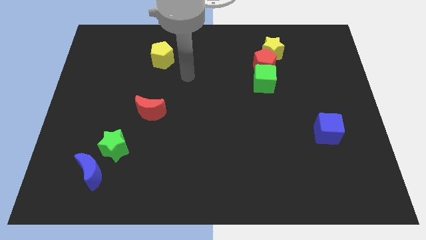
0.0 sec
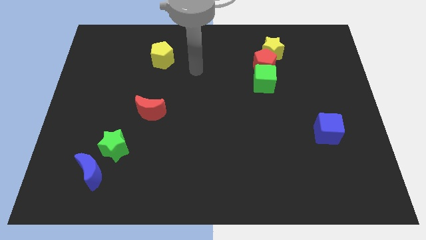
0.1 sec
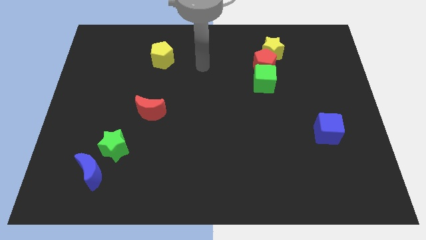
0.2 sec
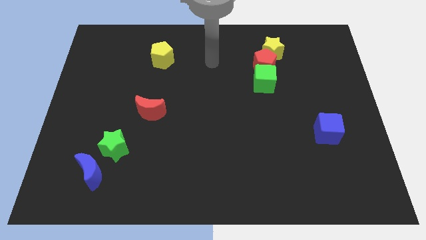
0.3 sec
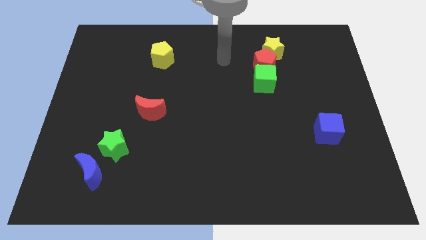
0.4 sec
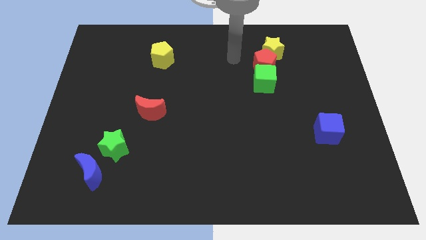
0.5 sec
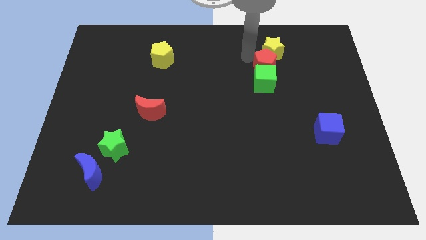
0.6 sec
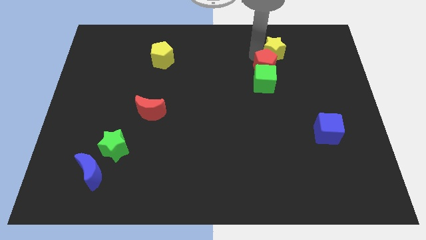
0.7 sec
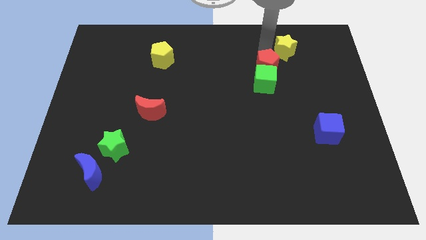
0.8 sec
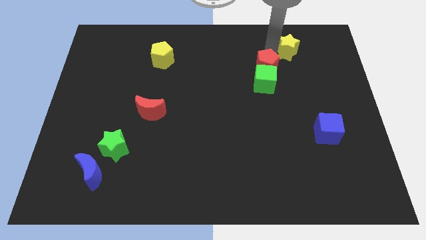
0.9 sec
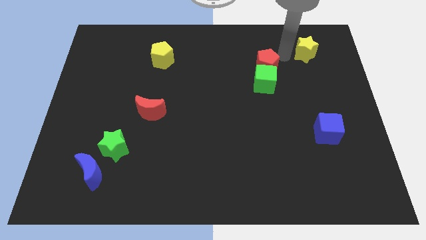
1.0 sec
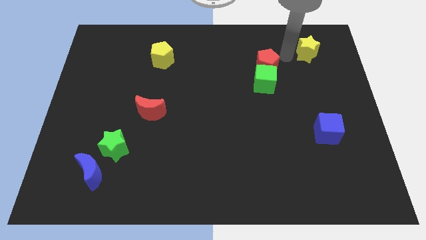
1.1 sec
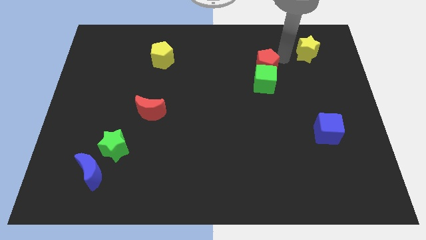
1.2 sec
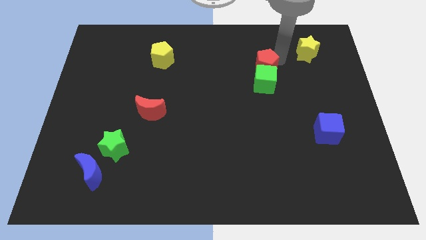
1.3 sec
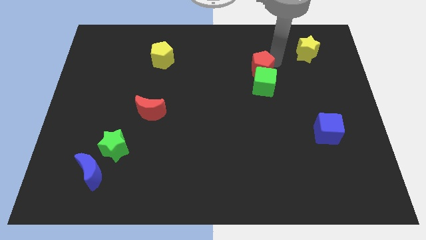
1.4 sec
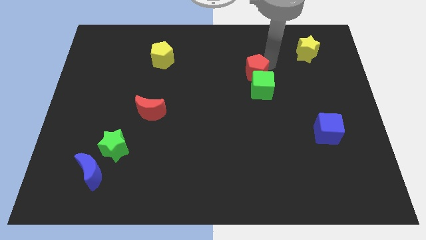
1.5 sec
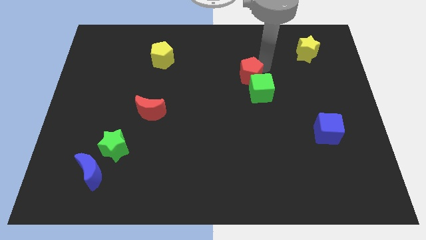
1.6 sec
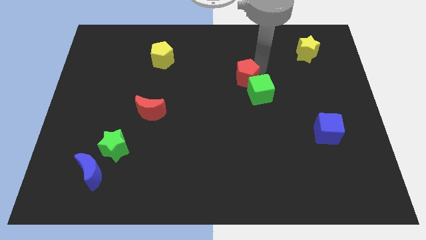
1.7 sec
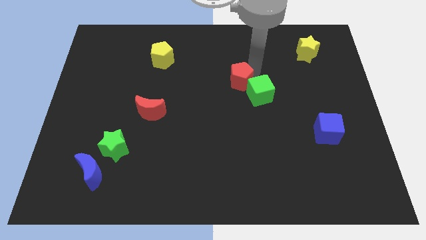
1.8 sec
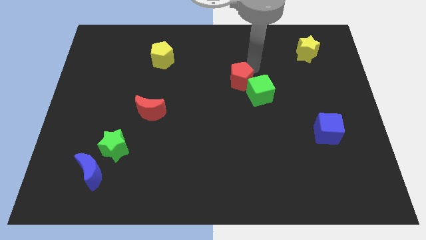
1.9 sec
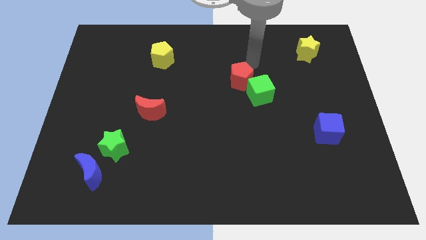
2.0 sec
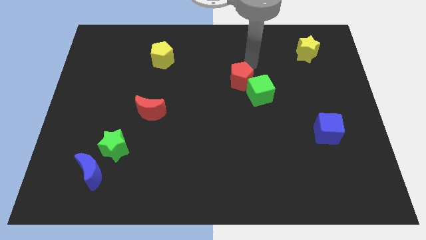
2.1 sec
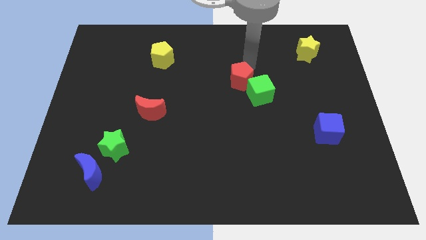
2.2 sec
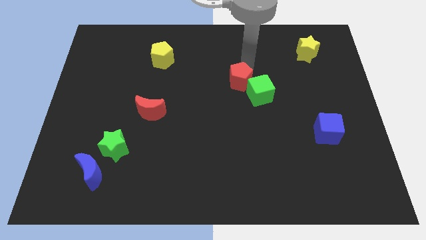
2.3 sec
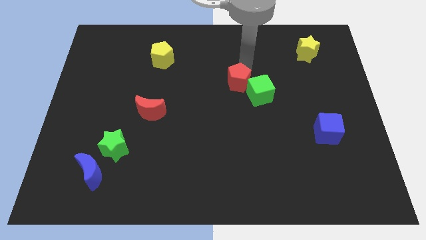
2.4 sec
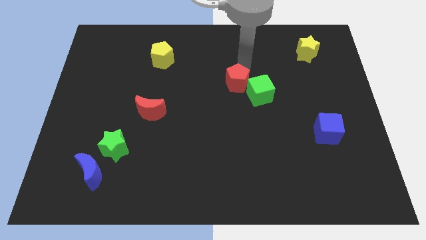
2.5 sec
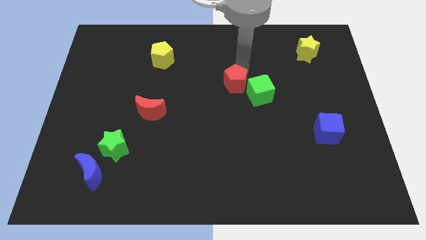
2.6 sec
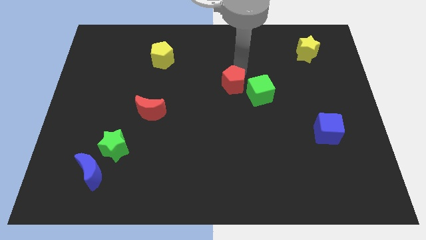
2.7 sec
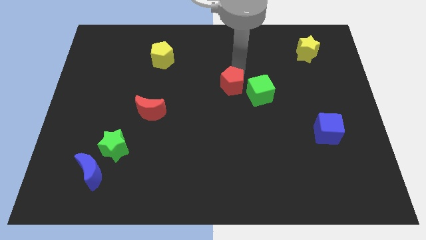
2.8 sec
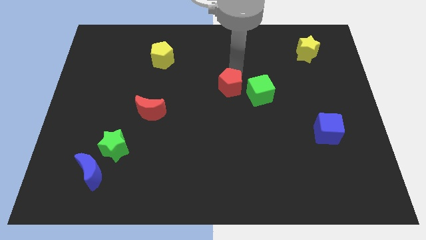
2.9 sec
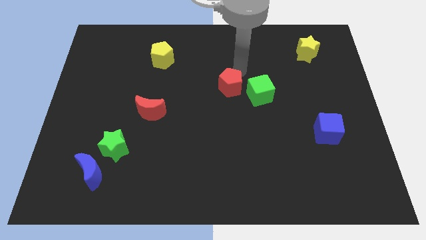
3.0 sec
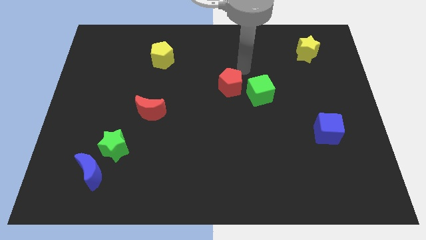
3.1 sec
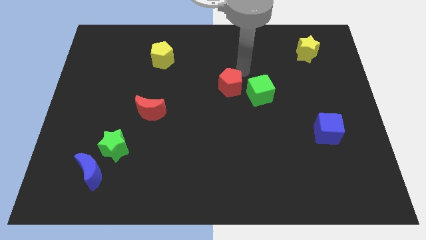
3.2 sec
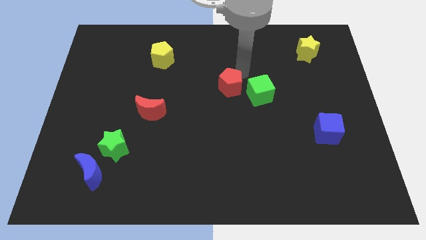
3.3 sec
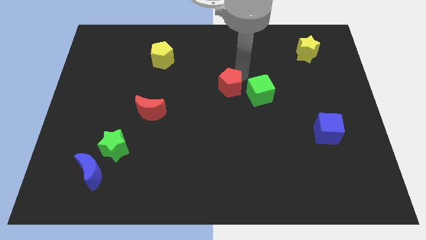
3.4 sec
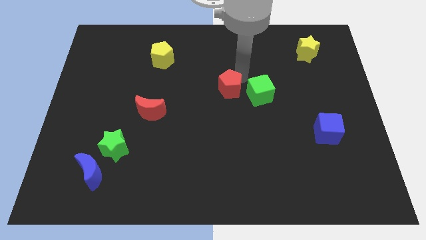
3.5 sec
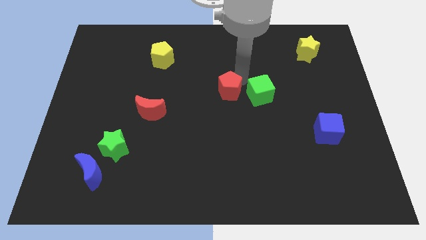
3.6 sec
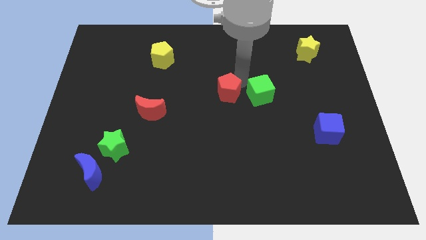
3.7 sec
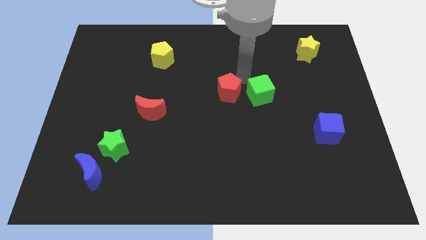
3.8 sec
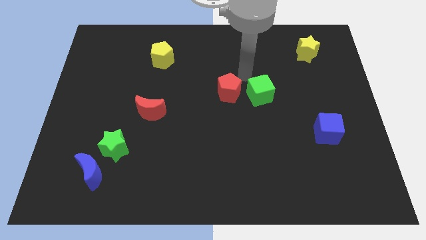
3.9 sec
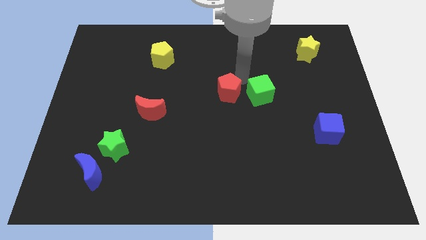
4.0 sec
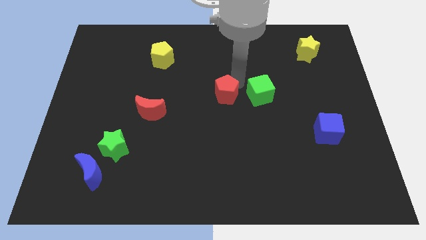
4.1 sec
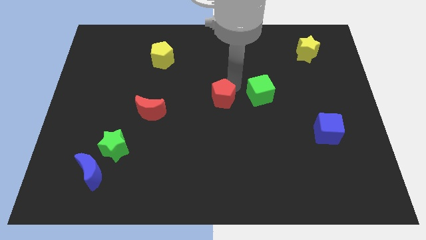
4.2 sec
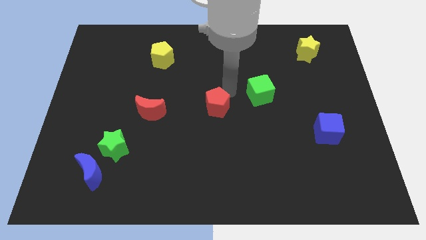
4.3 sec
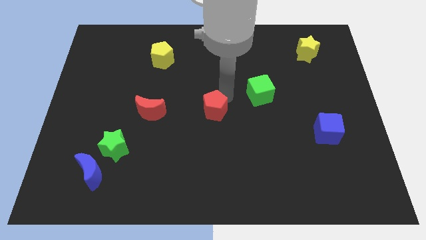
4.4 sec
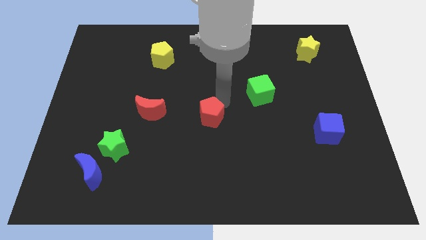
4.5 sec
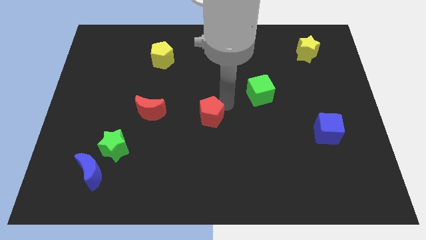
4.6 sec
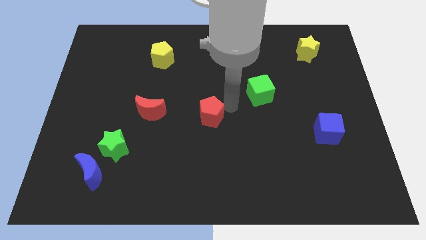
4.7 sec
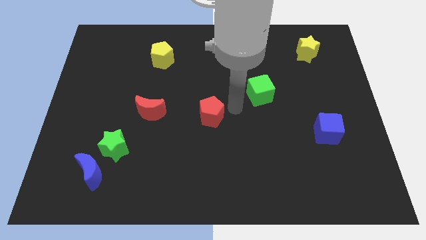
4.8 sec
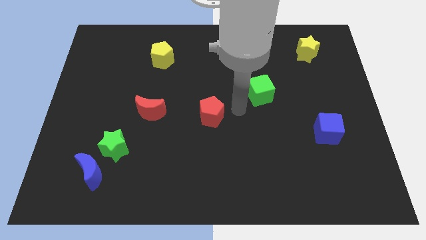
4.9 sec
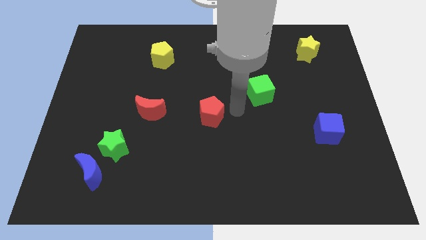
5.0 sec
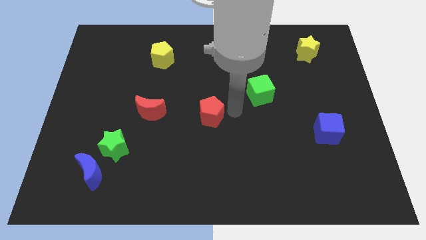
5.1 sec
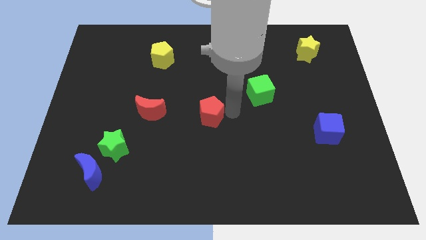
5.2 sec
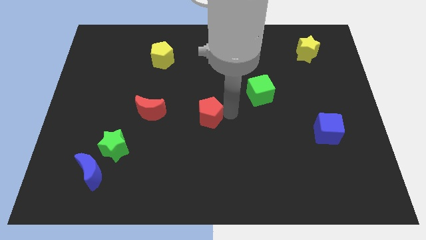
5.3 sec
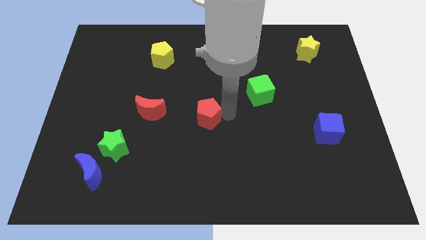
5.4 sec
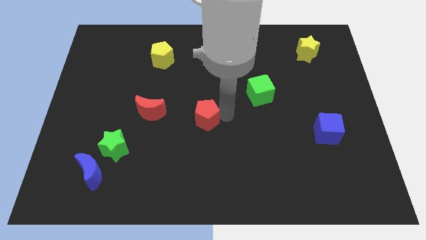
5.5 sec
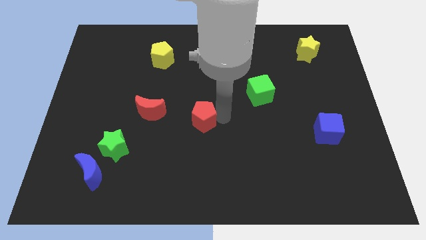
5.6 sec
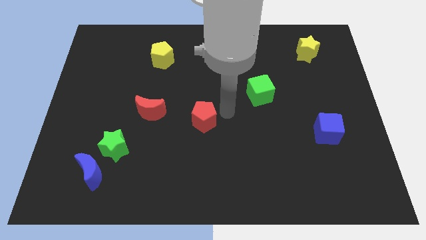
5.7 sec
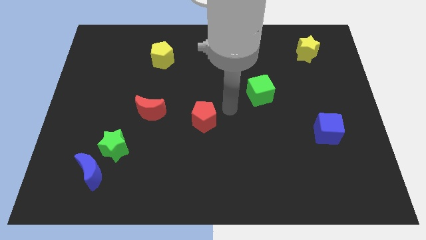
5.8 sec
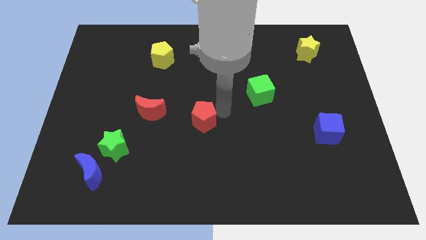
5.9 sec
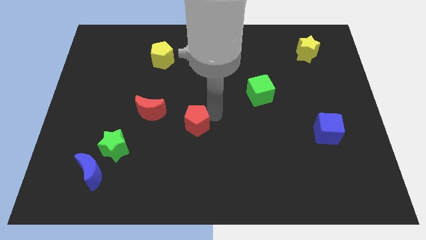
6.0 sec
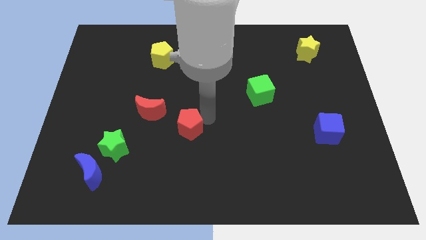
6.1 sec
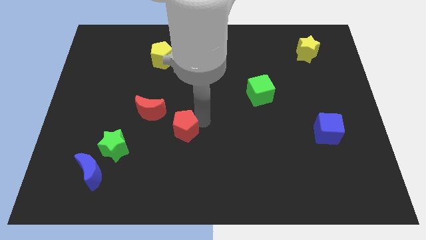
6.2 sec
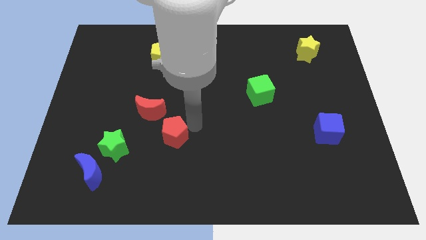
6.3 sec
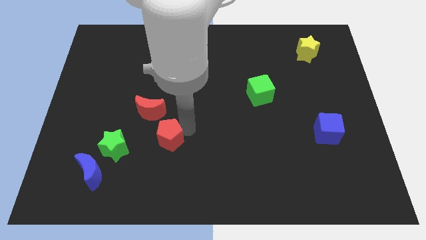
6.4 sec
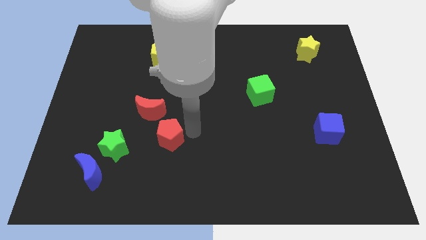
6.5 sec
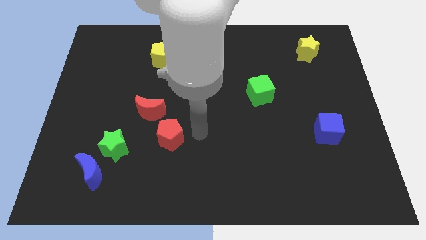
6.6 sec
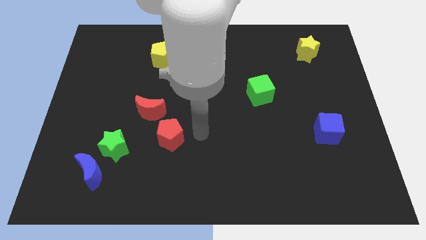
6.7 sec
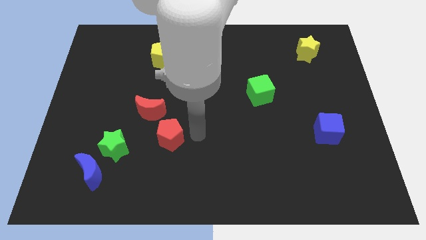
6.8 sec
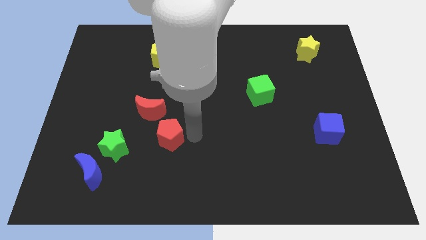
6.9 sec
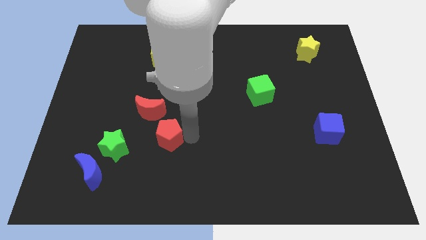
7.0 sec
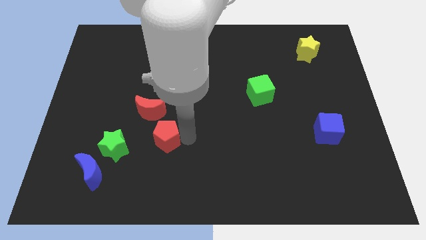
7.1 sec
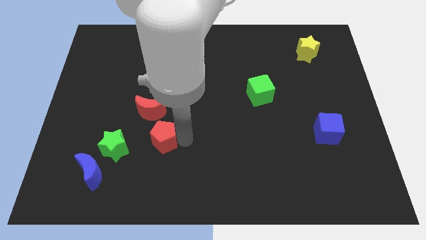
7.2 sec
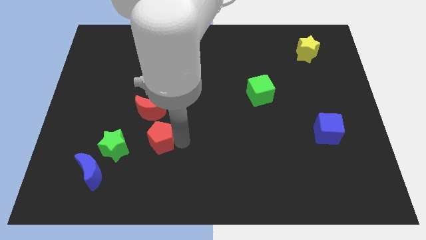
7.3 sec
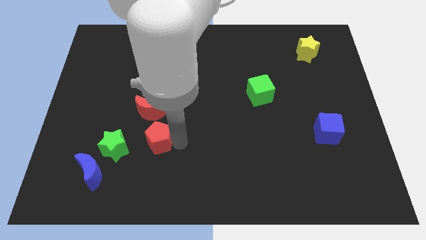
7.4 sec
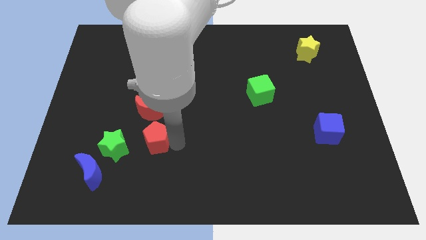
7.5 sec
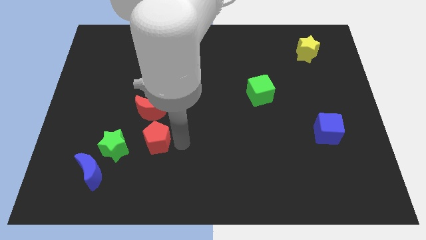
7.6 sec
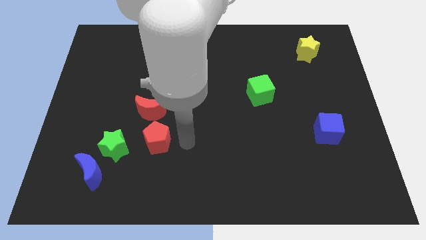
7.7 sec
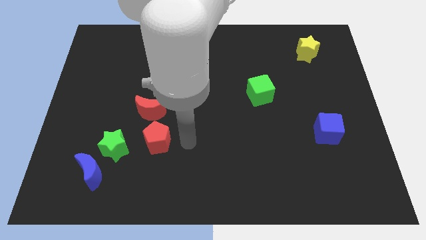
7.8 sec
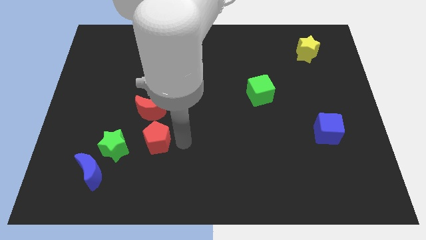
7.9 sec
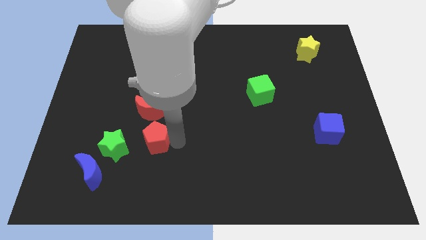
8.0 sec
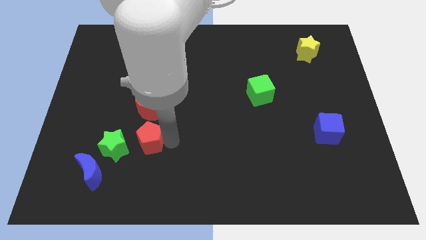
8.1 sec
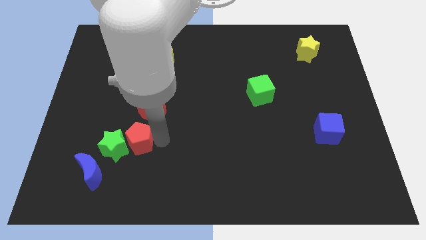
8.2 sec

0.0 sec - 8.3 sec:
put the red pentagon to the green star
